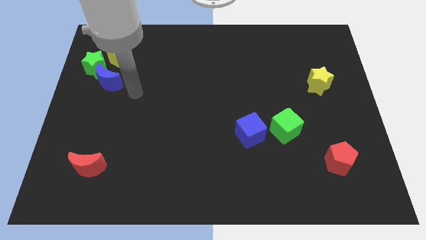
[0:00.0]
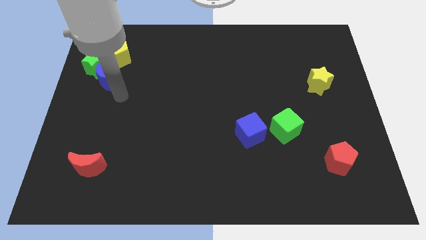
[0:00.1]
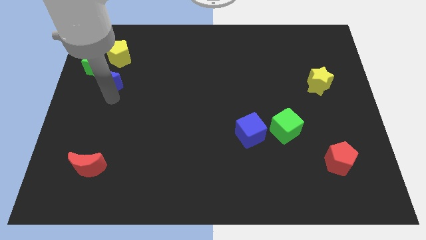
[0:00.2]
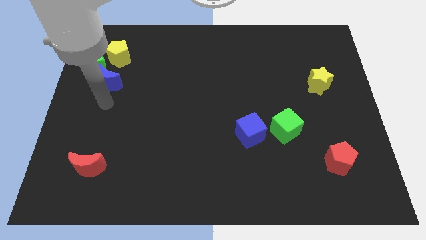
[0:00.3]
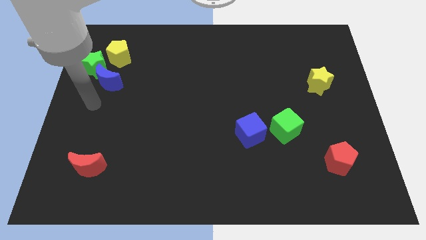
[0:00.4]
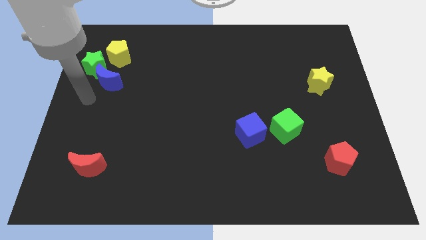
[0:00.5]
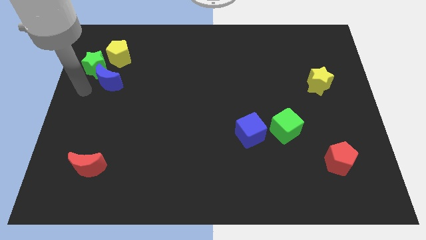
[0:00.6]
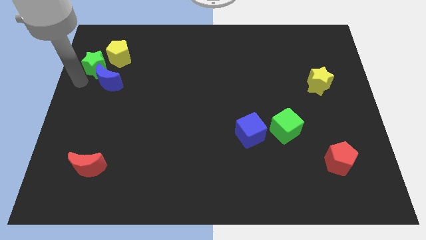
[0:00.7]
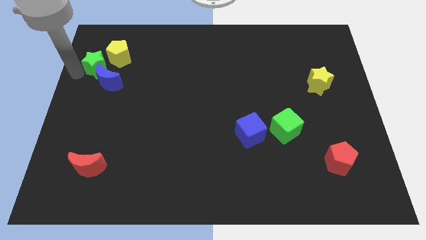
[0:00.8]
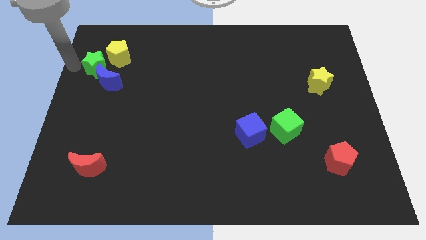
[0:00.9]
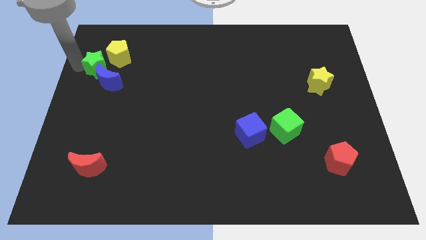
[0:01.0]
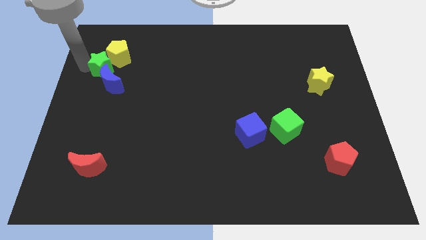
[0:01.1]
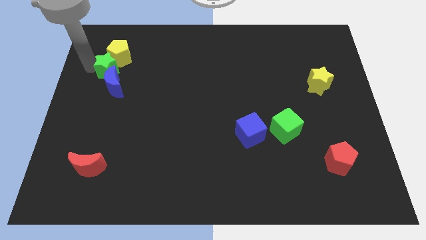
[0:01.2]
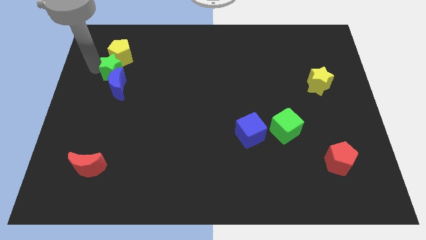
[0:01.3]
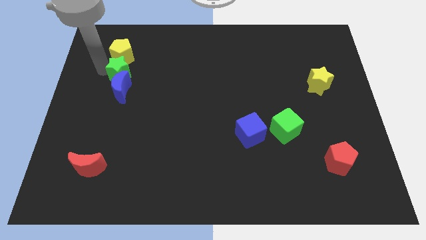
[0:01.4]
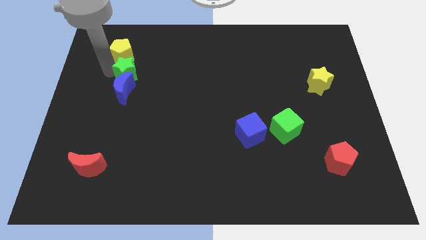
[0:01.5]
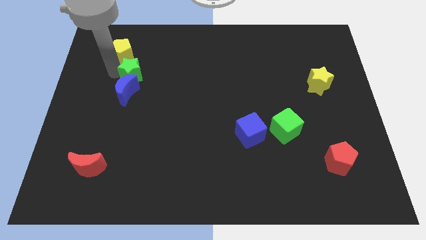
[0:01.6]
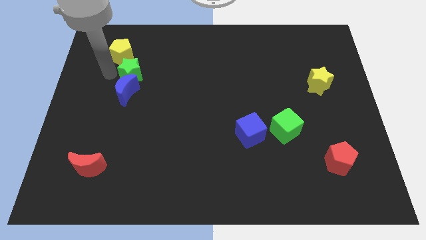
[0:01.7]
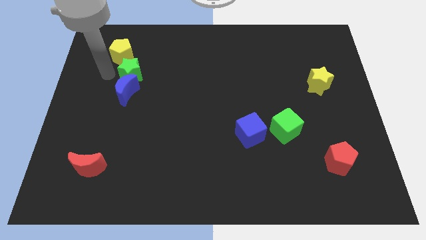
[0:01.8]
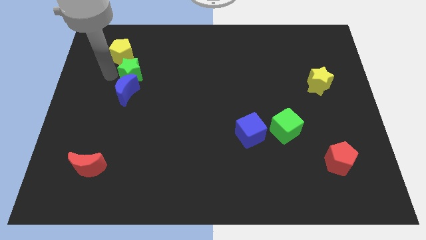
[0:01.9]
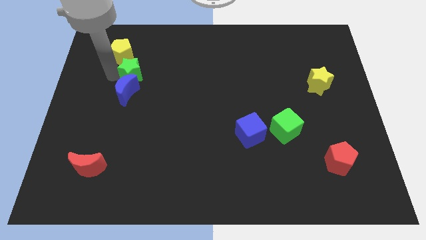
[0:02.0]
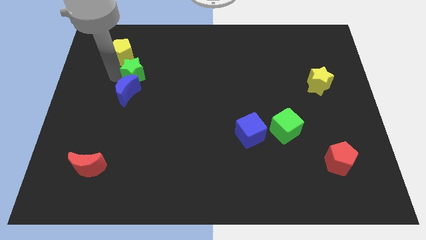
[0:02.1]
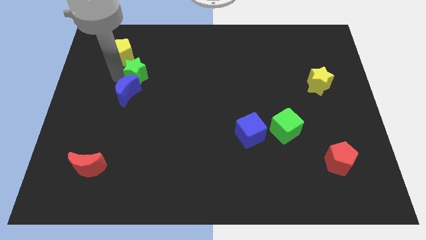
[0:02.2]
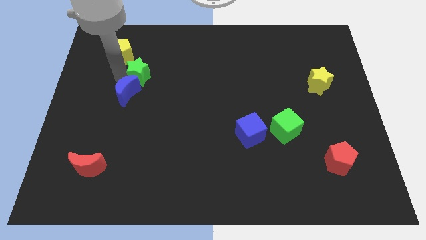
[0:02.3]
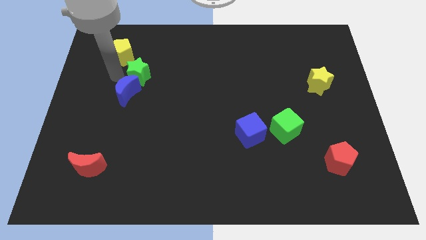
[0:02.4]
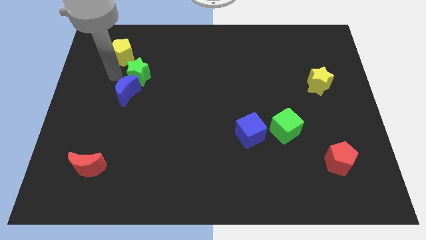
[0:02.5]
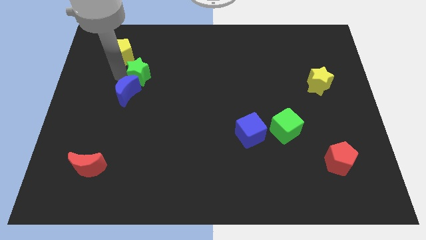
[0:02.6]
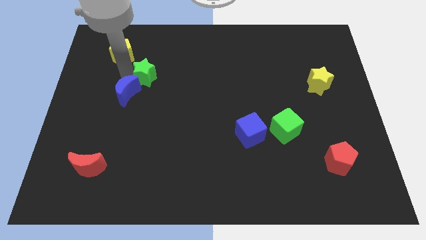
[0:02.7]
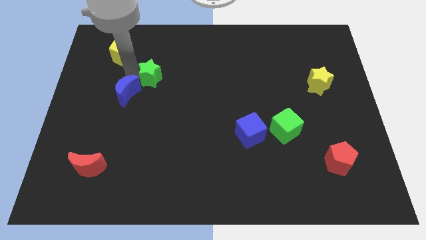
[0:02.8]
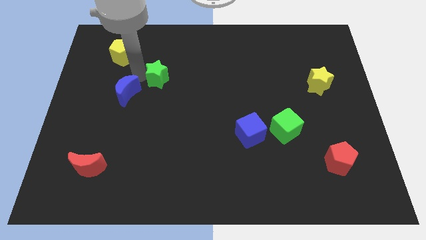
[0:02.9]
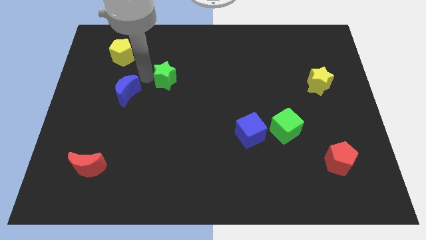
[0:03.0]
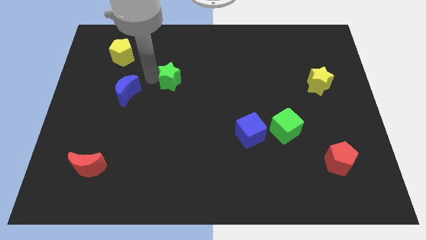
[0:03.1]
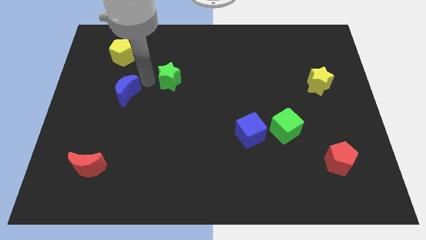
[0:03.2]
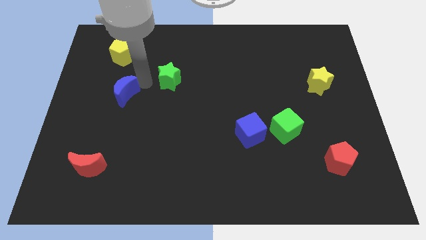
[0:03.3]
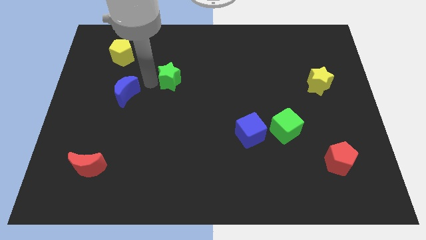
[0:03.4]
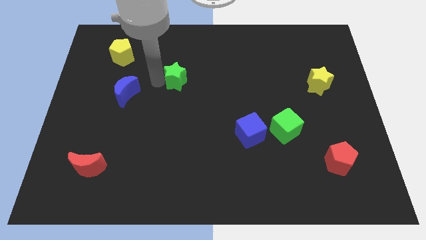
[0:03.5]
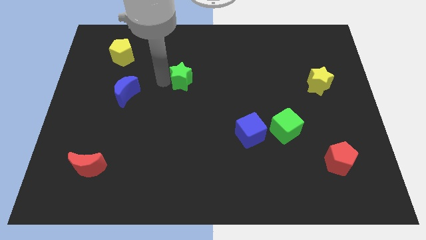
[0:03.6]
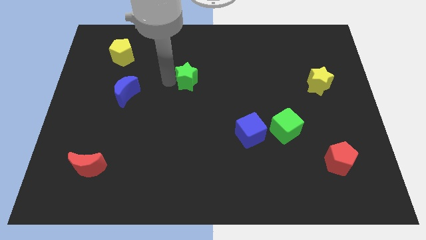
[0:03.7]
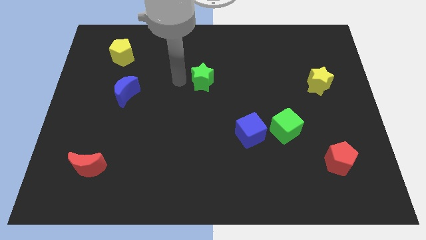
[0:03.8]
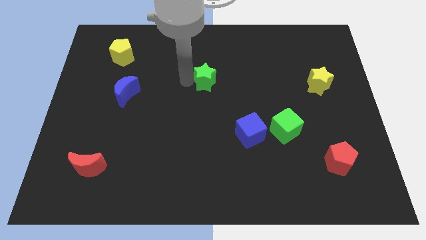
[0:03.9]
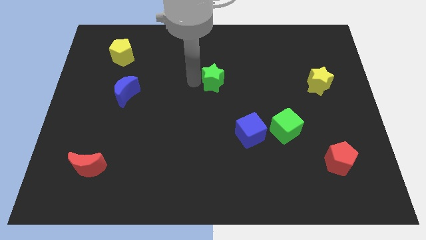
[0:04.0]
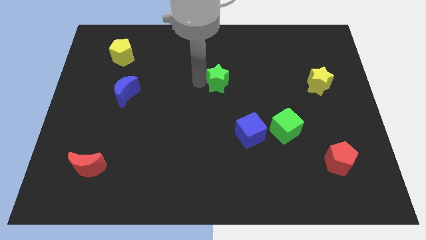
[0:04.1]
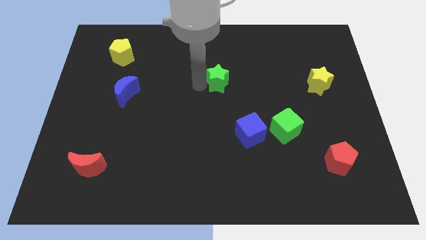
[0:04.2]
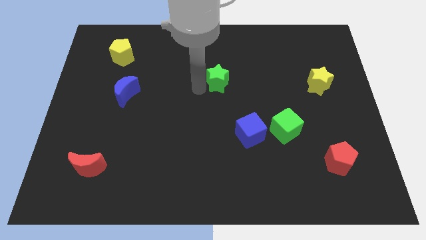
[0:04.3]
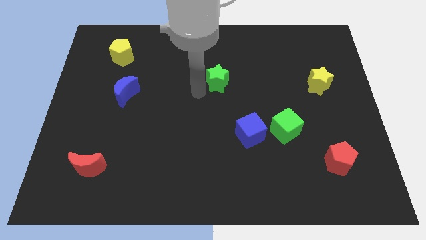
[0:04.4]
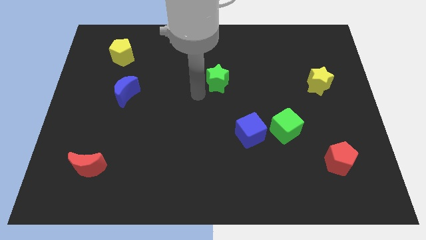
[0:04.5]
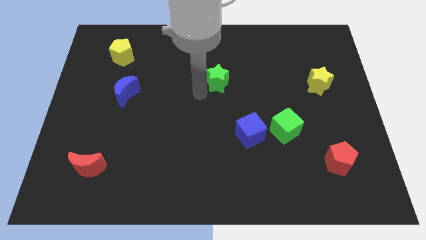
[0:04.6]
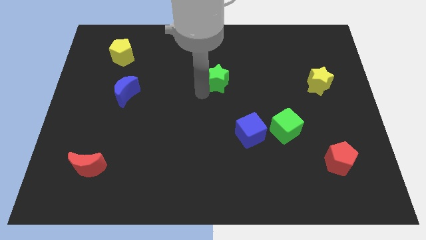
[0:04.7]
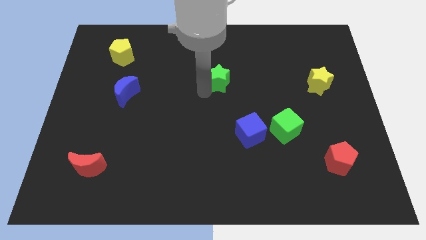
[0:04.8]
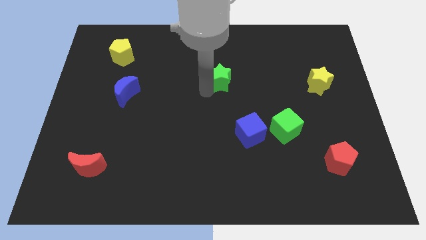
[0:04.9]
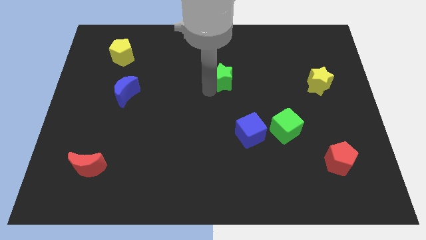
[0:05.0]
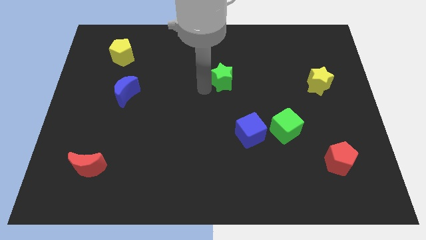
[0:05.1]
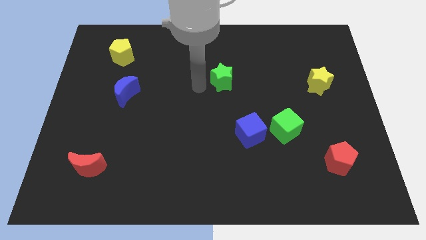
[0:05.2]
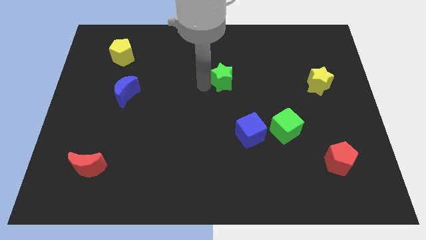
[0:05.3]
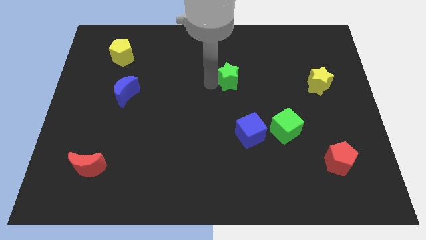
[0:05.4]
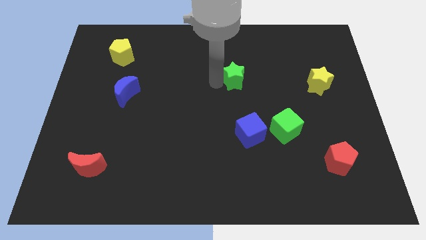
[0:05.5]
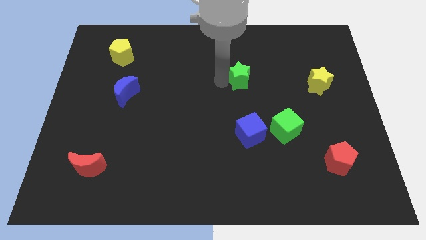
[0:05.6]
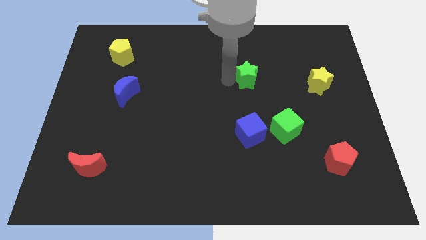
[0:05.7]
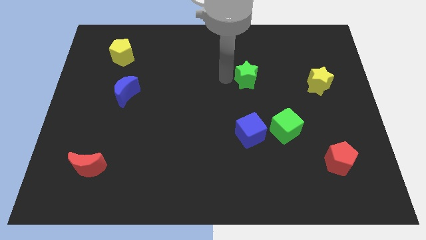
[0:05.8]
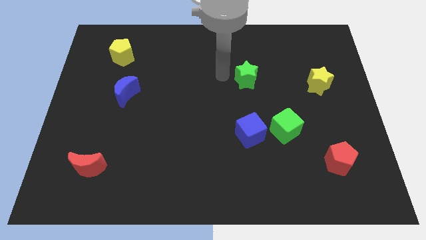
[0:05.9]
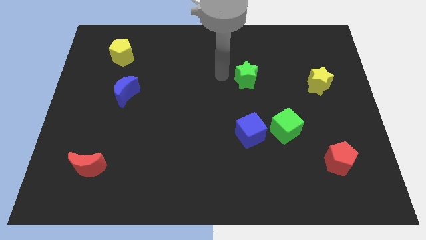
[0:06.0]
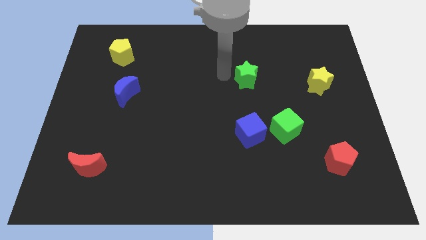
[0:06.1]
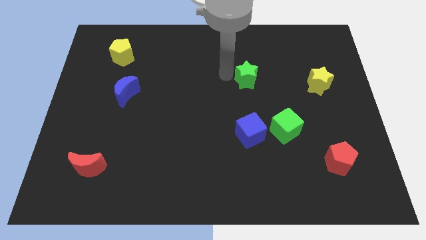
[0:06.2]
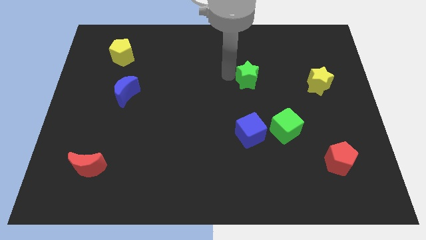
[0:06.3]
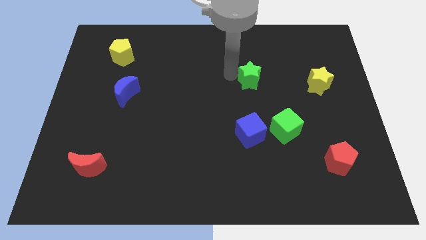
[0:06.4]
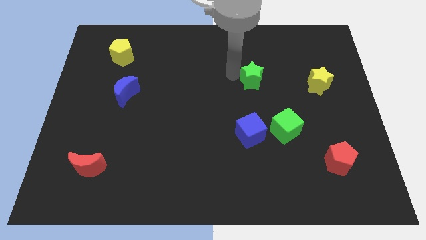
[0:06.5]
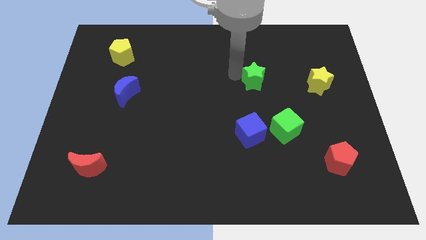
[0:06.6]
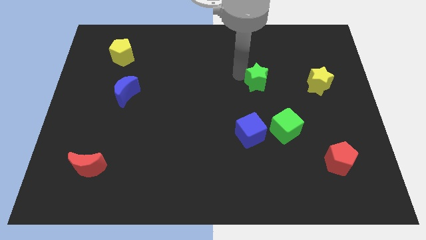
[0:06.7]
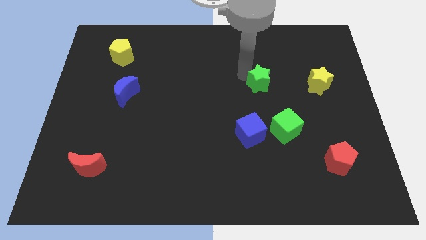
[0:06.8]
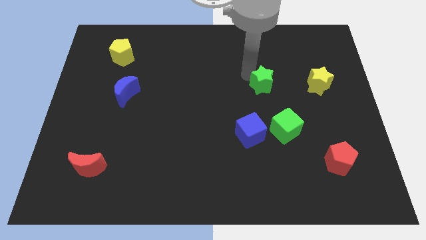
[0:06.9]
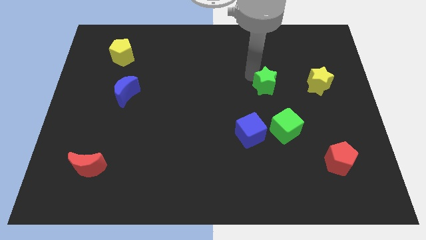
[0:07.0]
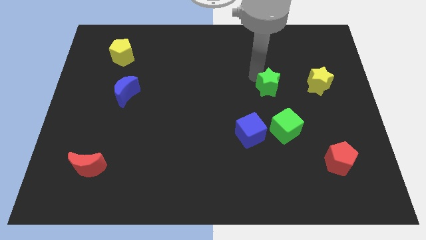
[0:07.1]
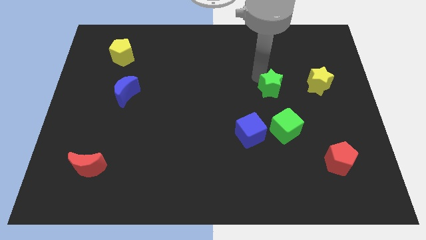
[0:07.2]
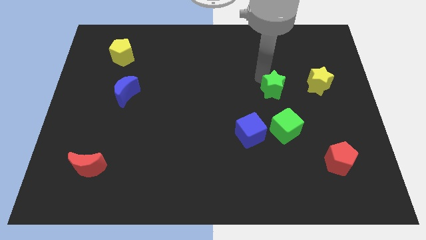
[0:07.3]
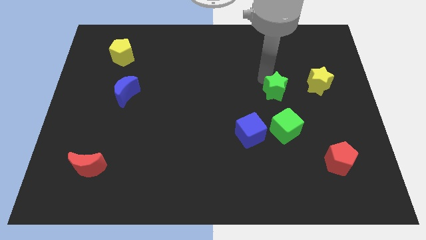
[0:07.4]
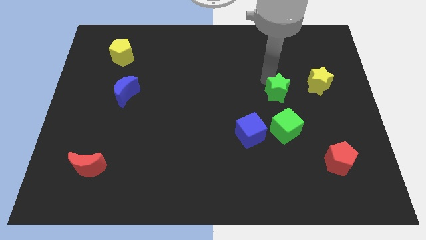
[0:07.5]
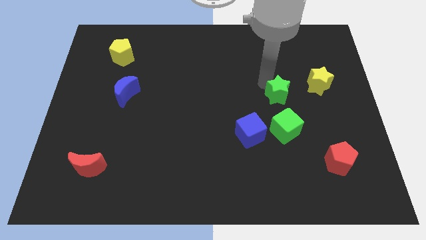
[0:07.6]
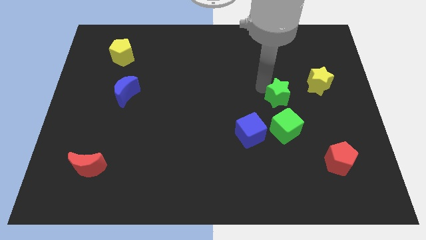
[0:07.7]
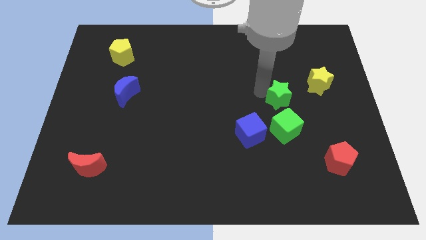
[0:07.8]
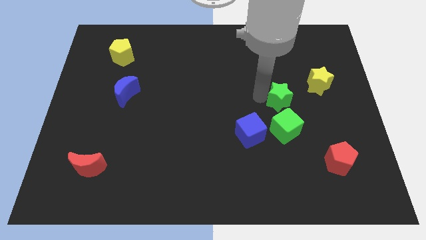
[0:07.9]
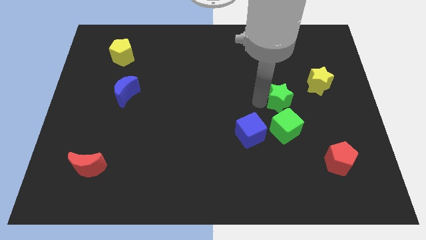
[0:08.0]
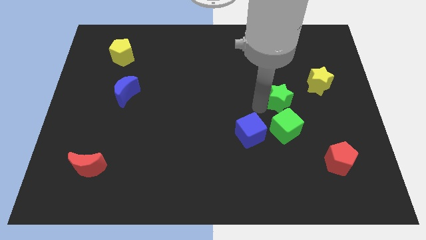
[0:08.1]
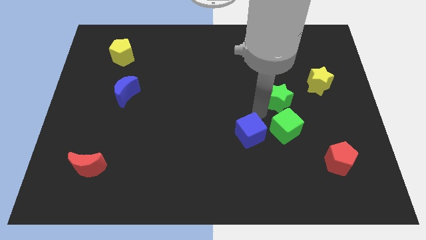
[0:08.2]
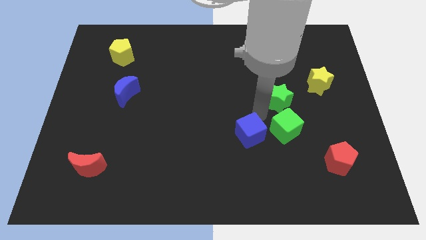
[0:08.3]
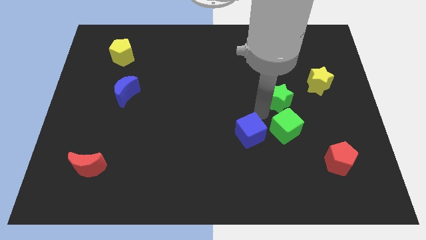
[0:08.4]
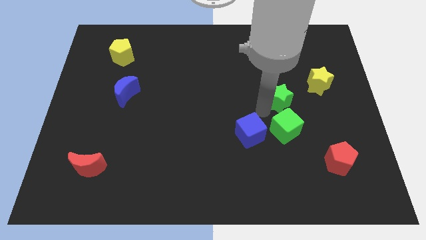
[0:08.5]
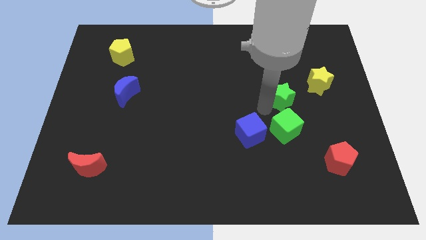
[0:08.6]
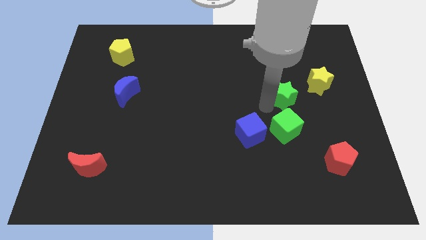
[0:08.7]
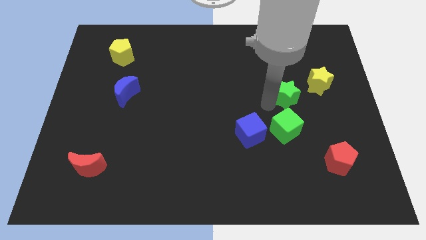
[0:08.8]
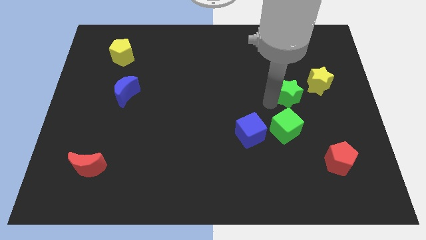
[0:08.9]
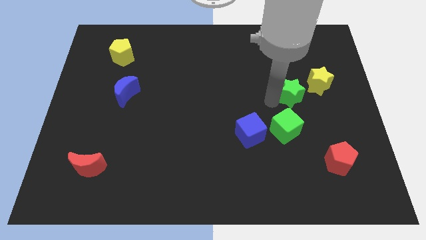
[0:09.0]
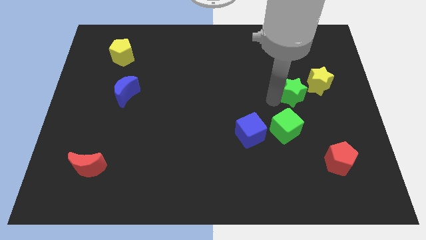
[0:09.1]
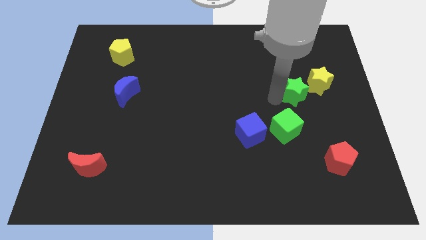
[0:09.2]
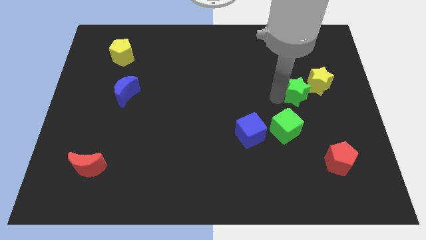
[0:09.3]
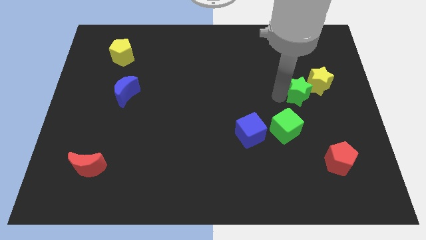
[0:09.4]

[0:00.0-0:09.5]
slide the green star next to the yellow star
